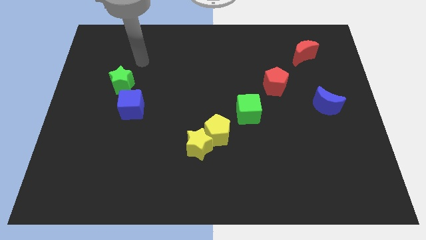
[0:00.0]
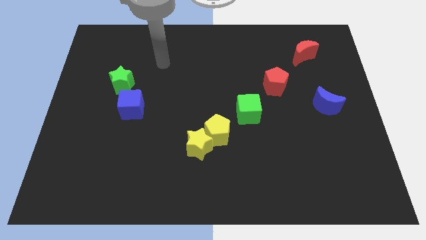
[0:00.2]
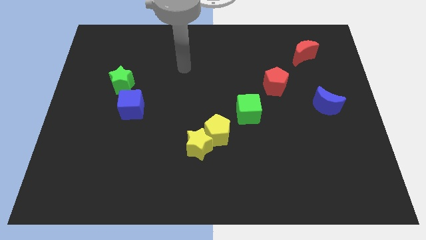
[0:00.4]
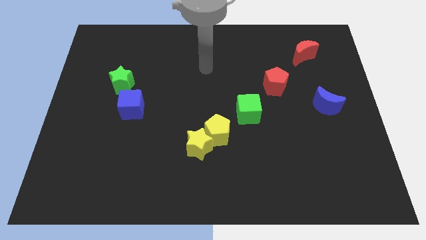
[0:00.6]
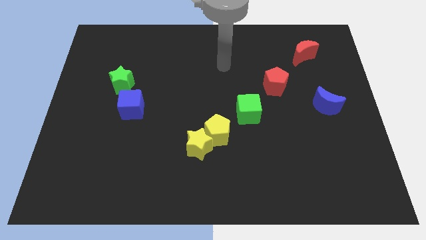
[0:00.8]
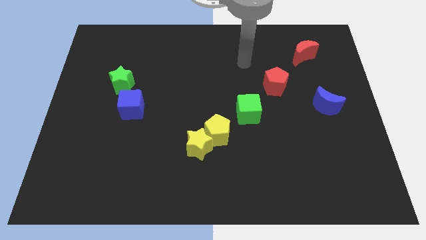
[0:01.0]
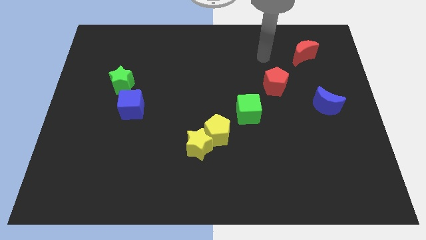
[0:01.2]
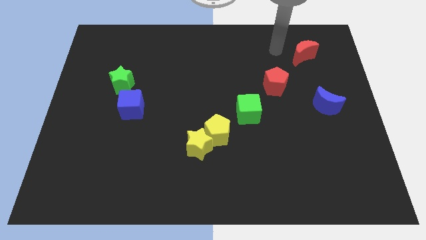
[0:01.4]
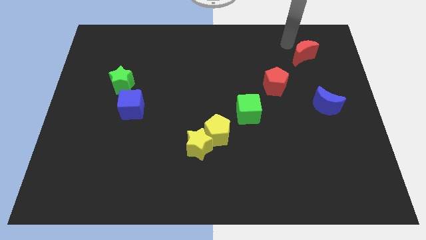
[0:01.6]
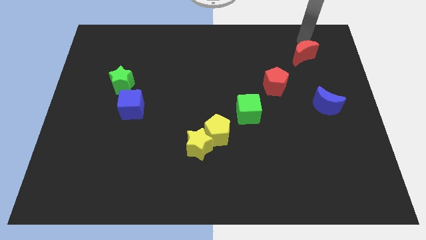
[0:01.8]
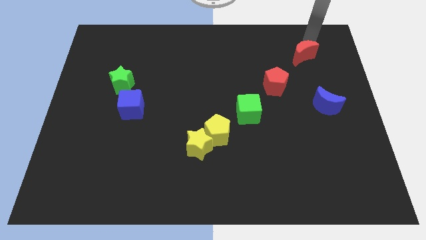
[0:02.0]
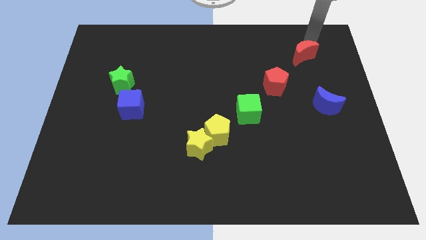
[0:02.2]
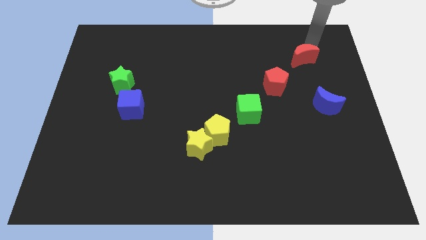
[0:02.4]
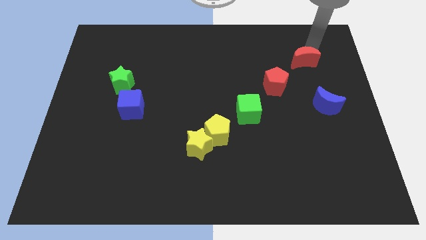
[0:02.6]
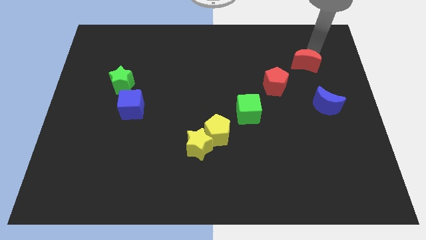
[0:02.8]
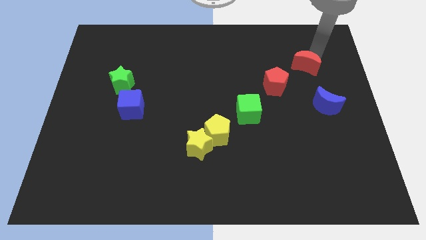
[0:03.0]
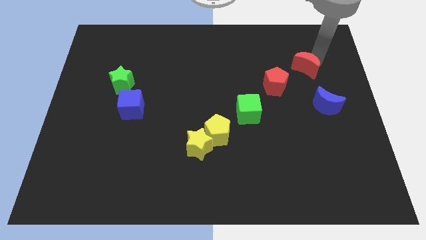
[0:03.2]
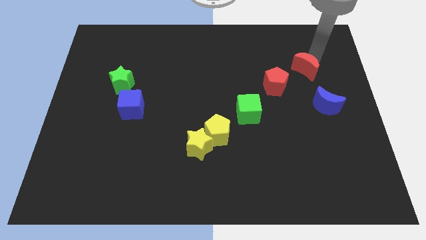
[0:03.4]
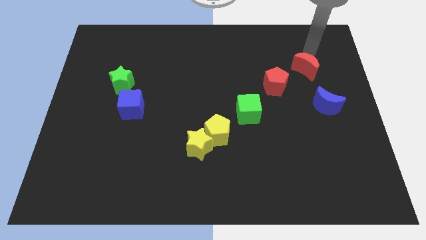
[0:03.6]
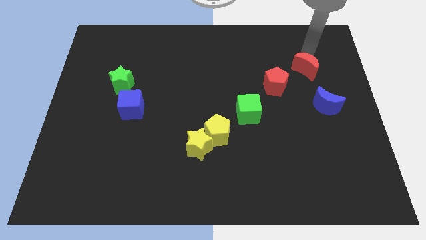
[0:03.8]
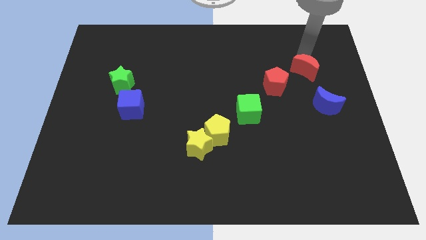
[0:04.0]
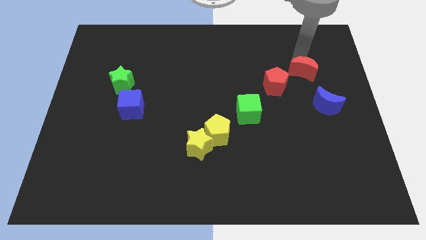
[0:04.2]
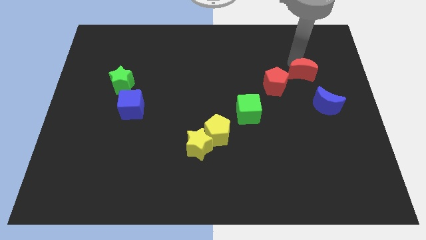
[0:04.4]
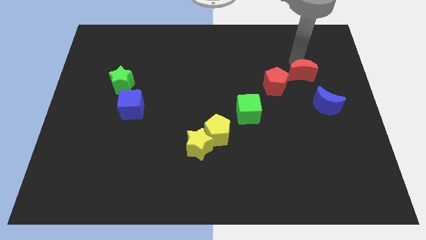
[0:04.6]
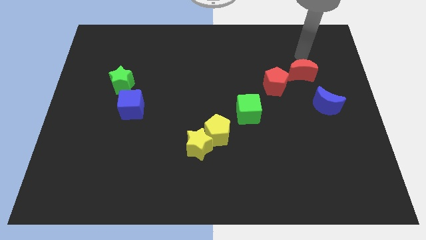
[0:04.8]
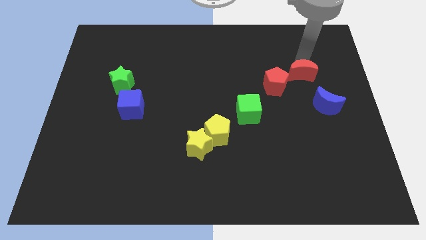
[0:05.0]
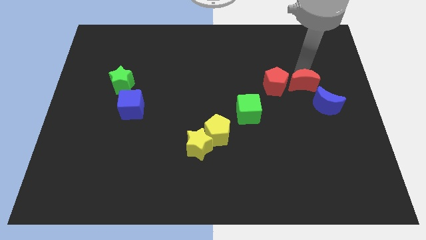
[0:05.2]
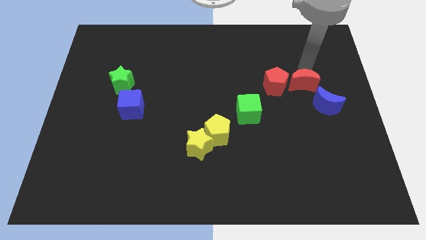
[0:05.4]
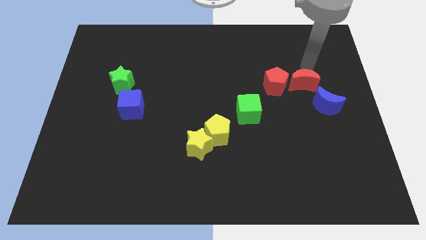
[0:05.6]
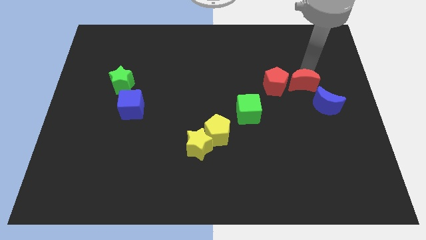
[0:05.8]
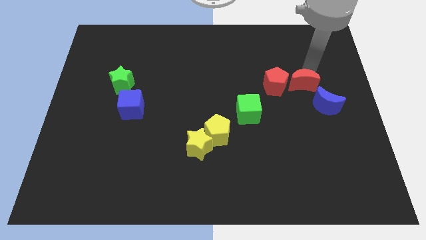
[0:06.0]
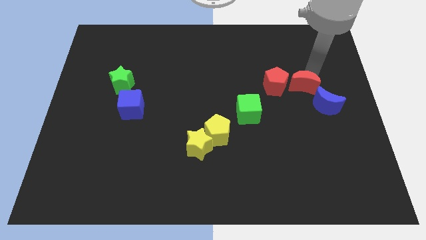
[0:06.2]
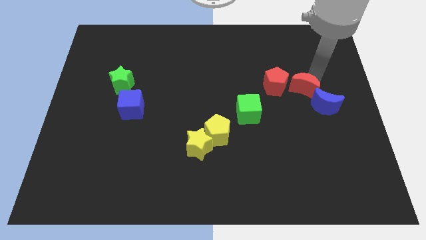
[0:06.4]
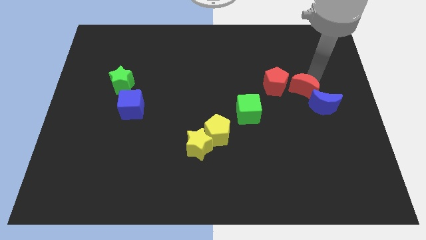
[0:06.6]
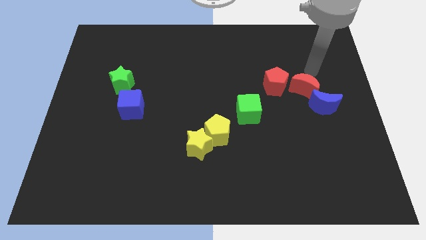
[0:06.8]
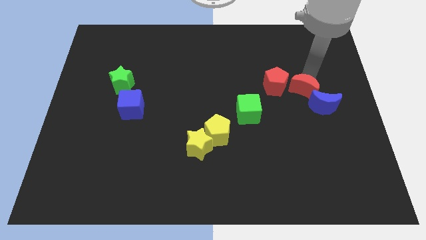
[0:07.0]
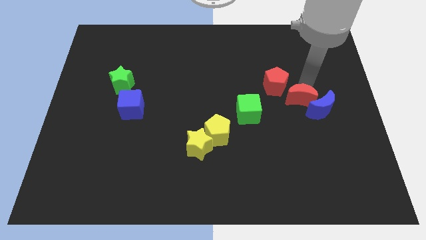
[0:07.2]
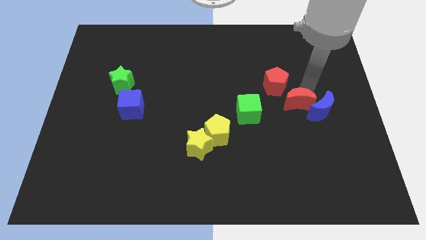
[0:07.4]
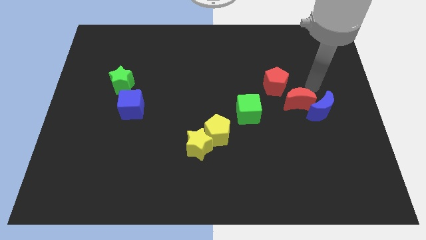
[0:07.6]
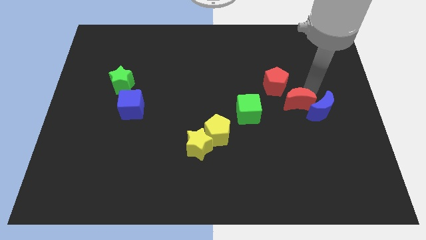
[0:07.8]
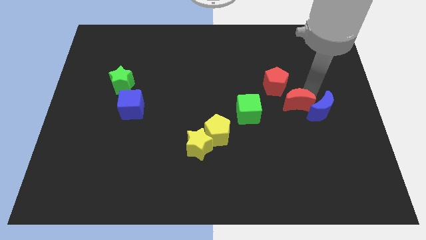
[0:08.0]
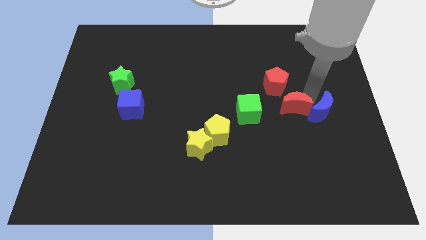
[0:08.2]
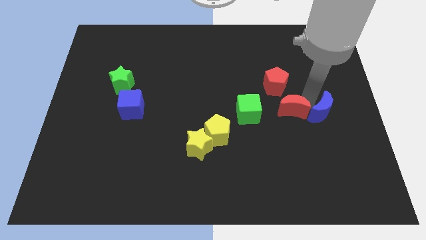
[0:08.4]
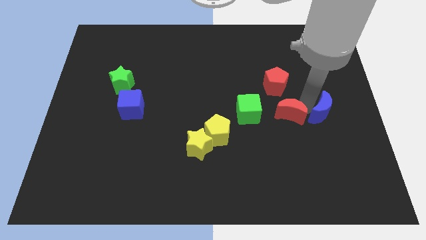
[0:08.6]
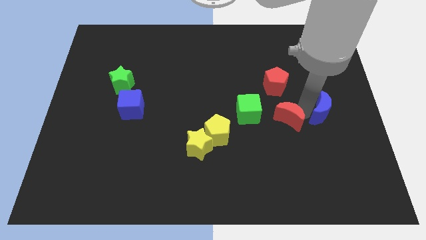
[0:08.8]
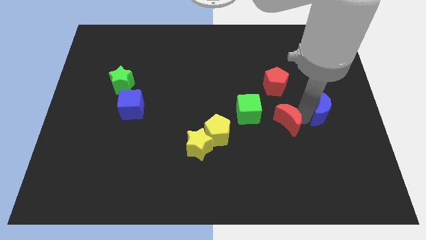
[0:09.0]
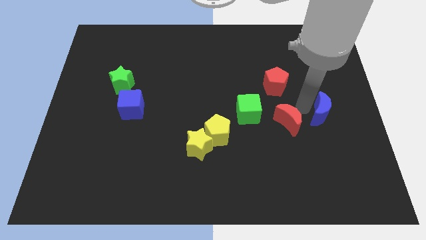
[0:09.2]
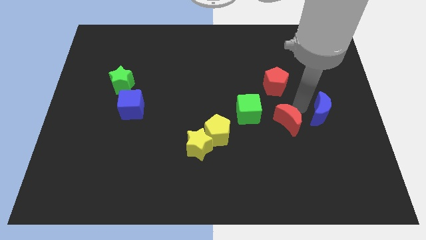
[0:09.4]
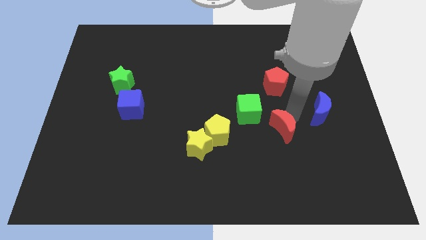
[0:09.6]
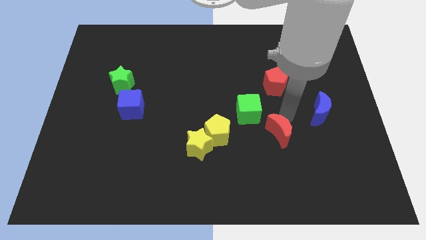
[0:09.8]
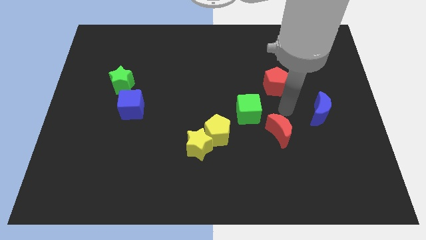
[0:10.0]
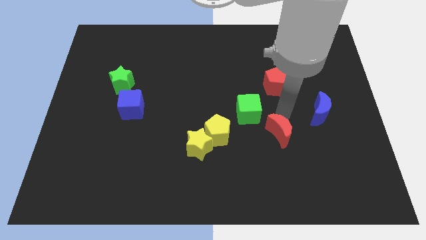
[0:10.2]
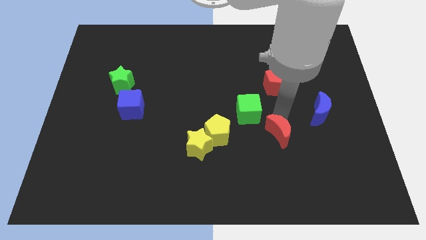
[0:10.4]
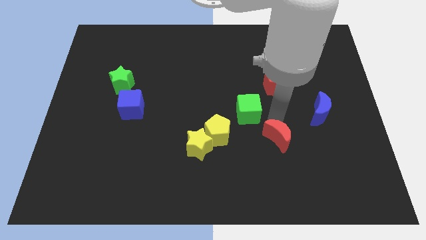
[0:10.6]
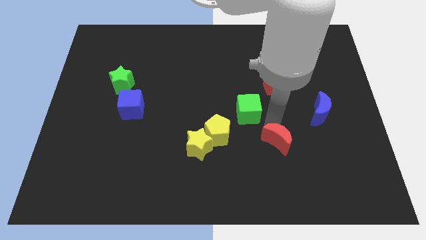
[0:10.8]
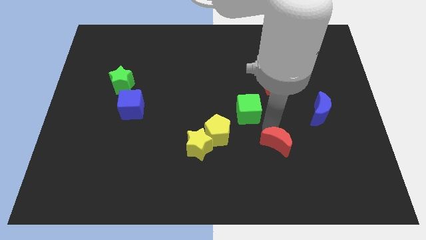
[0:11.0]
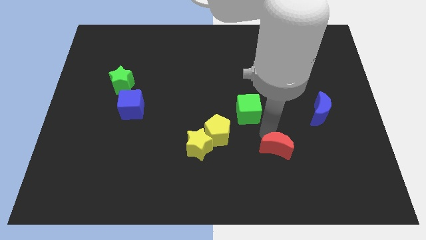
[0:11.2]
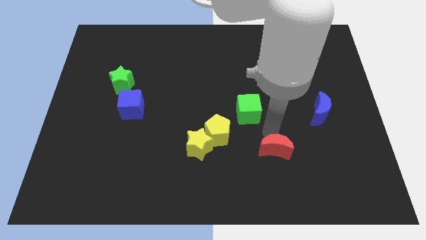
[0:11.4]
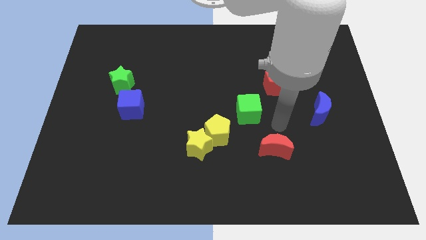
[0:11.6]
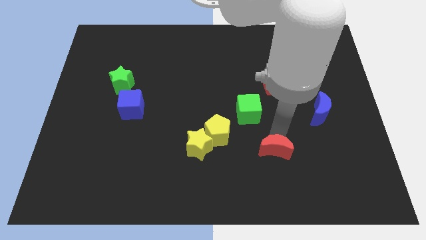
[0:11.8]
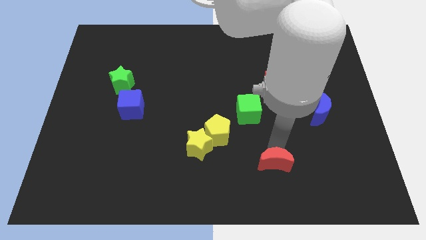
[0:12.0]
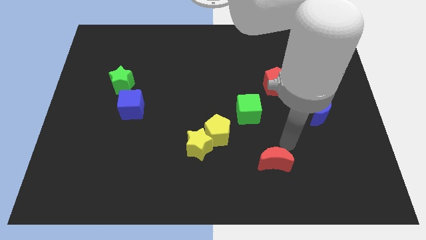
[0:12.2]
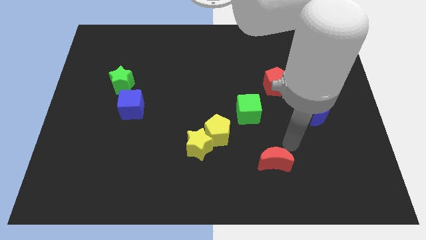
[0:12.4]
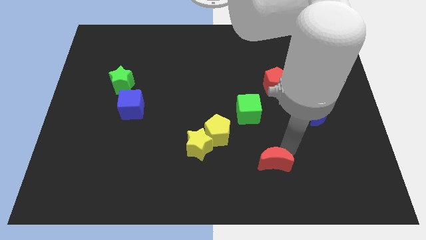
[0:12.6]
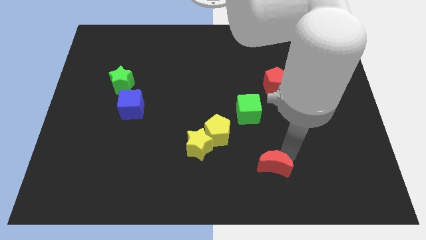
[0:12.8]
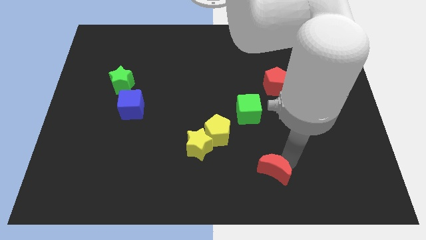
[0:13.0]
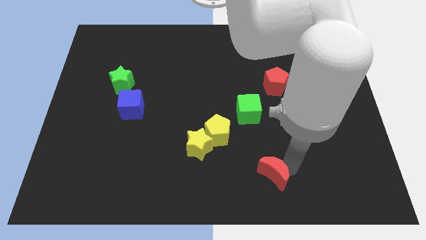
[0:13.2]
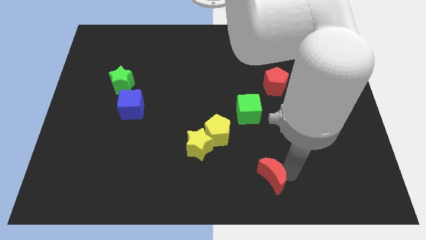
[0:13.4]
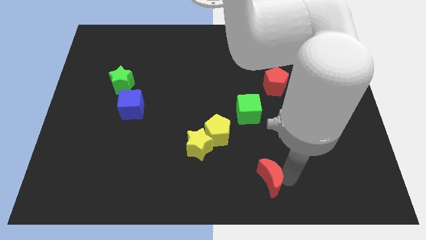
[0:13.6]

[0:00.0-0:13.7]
put the red moon to the bottom

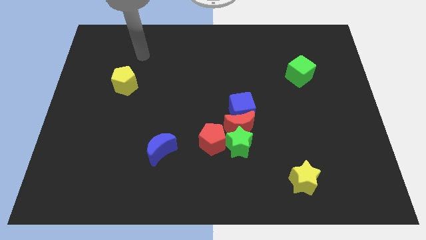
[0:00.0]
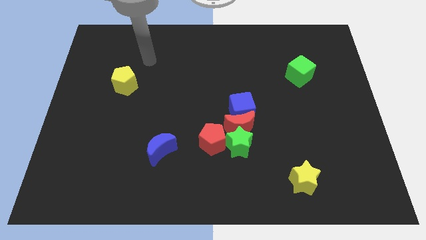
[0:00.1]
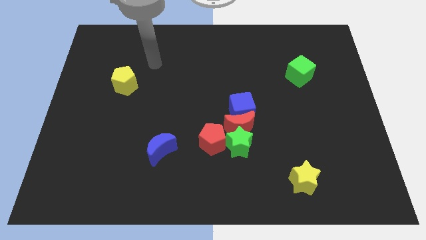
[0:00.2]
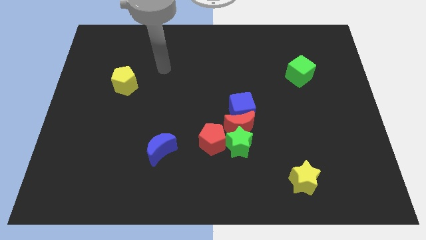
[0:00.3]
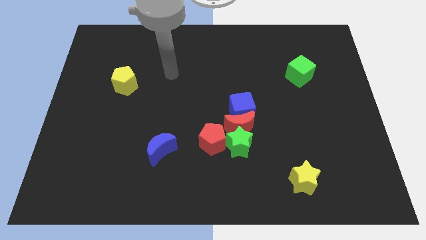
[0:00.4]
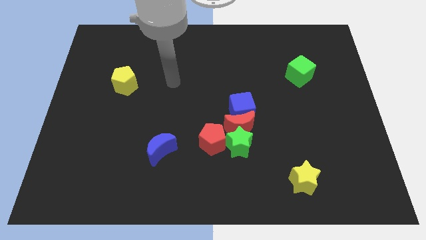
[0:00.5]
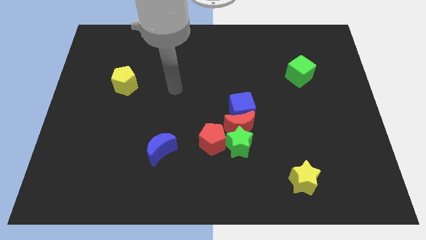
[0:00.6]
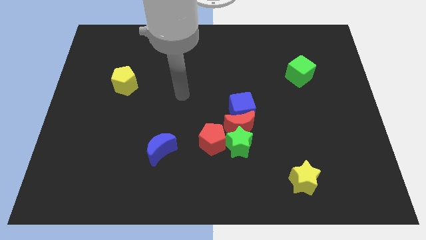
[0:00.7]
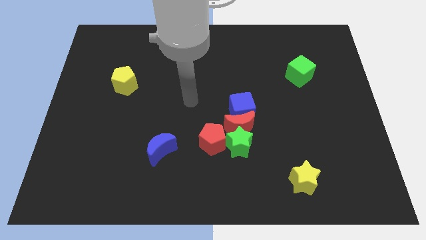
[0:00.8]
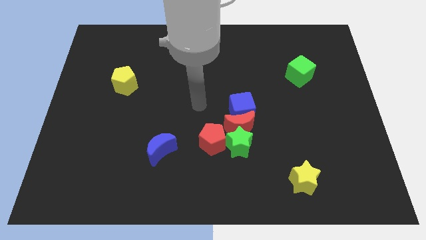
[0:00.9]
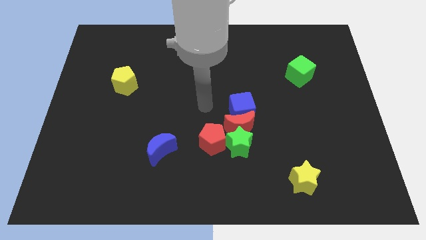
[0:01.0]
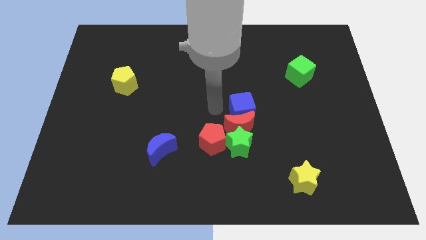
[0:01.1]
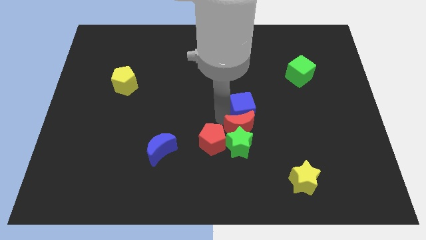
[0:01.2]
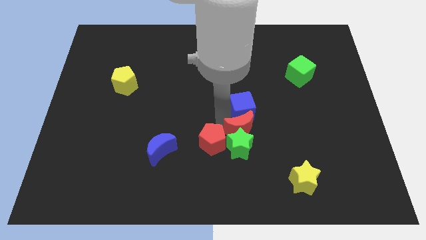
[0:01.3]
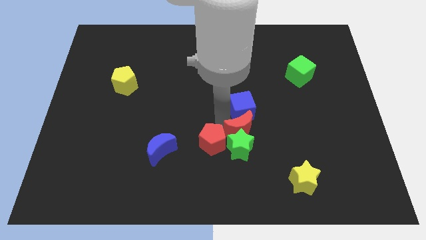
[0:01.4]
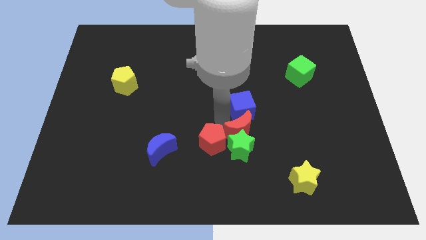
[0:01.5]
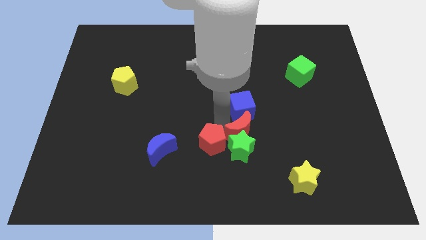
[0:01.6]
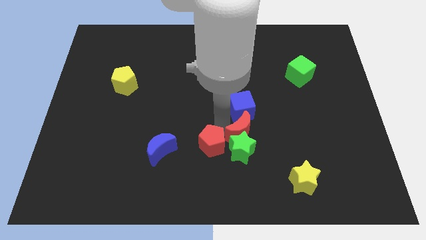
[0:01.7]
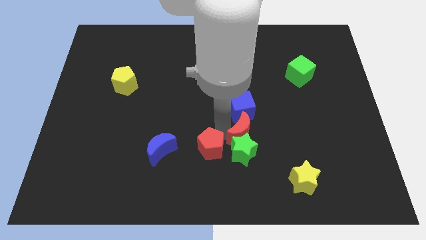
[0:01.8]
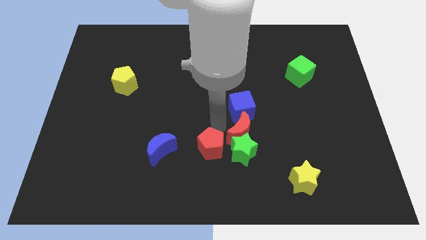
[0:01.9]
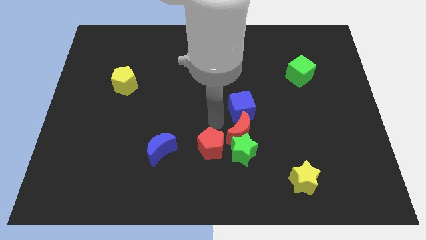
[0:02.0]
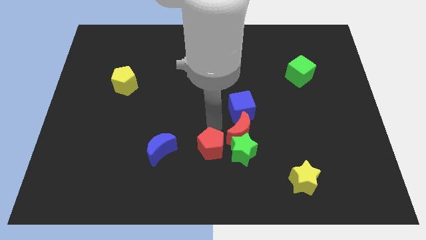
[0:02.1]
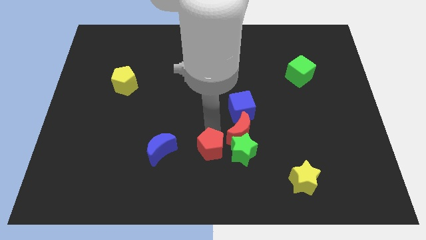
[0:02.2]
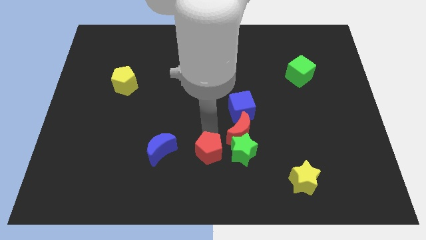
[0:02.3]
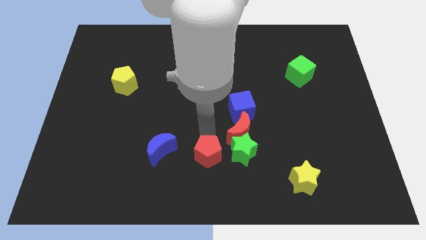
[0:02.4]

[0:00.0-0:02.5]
move the red pentagon to the bottom
